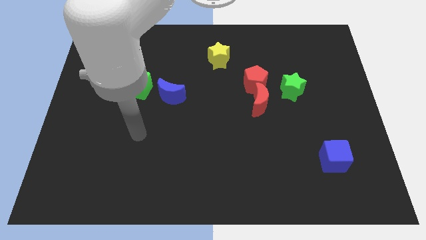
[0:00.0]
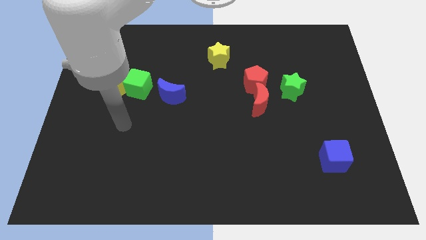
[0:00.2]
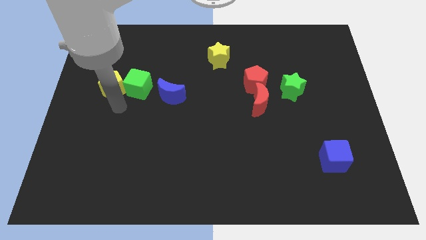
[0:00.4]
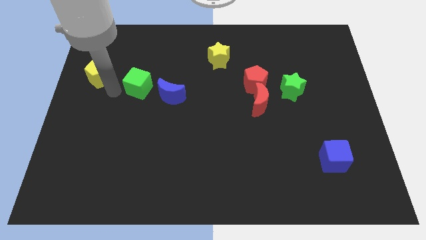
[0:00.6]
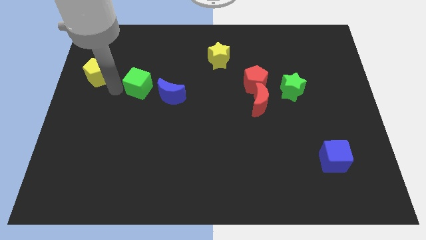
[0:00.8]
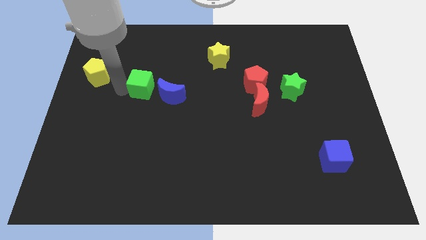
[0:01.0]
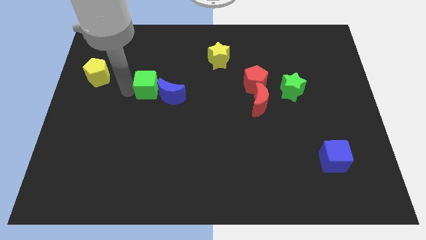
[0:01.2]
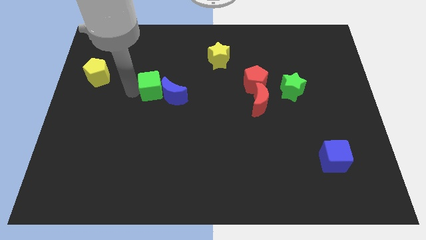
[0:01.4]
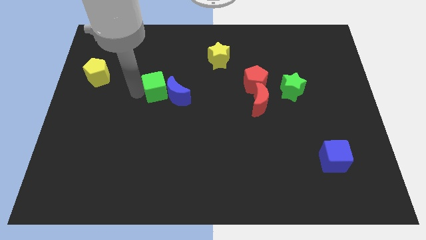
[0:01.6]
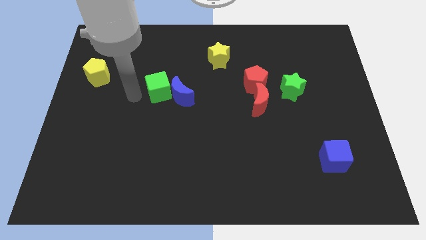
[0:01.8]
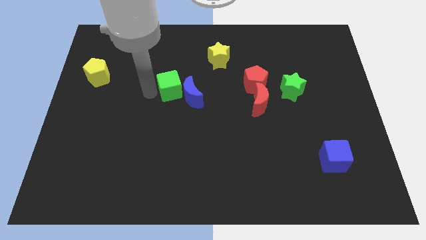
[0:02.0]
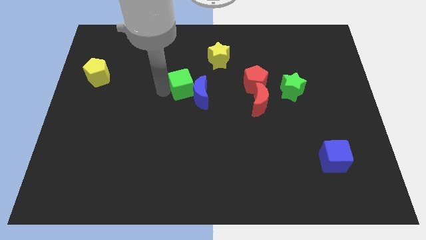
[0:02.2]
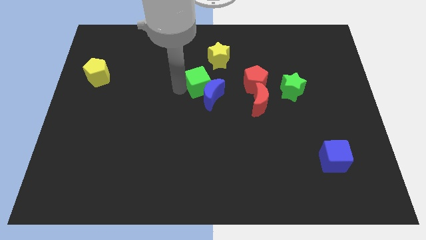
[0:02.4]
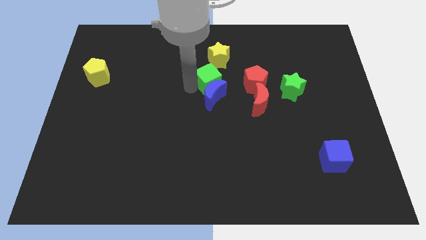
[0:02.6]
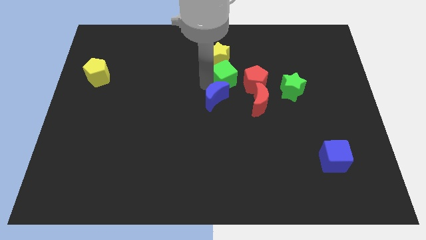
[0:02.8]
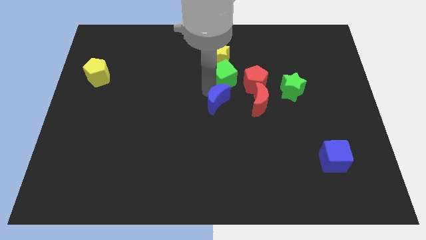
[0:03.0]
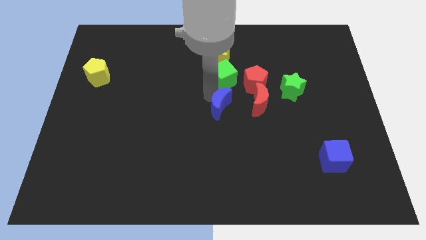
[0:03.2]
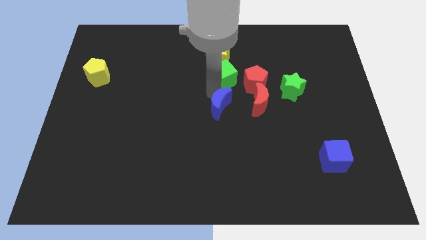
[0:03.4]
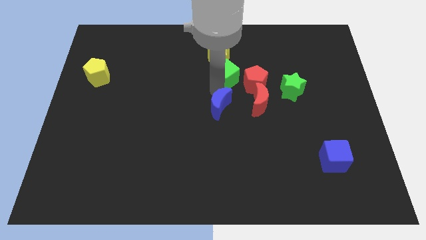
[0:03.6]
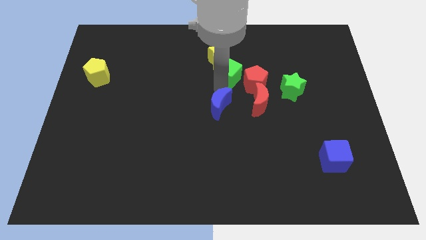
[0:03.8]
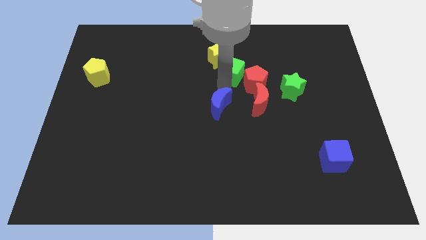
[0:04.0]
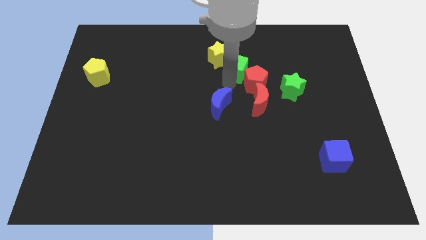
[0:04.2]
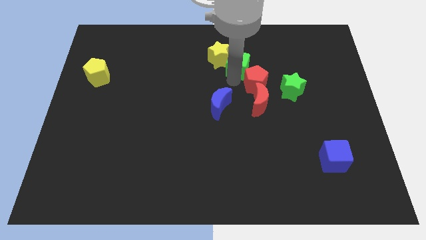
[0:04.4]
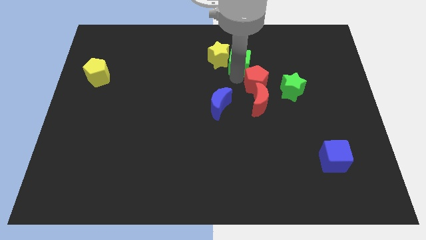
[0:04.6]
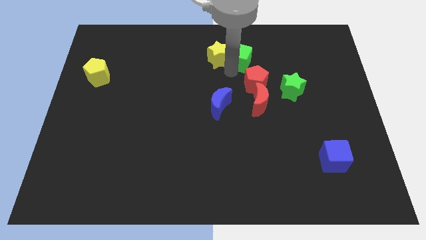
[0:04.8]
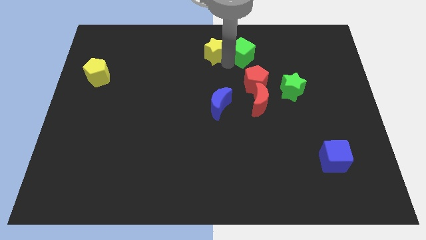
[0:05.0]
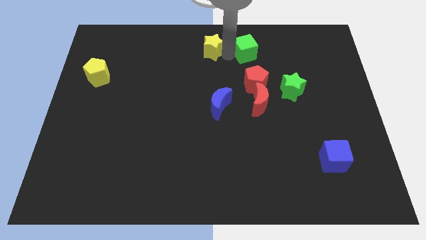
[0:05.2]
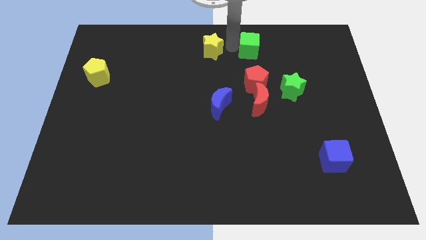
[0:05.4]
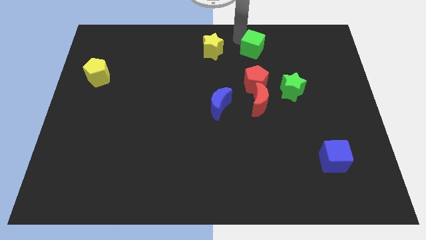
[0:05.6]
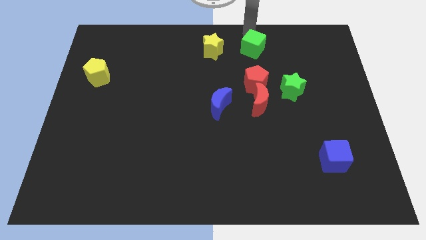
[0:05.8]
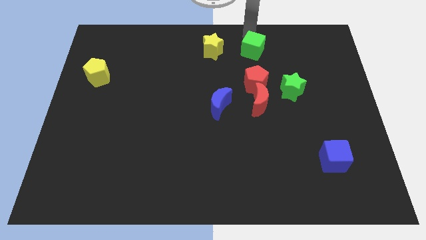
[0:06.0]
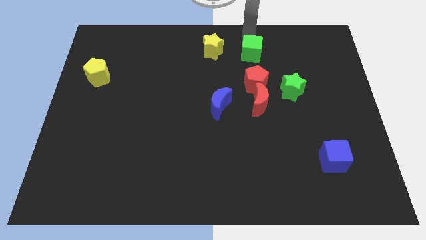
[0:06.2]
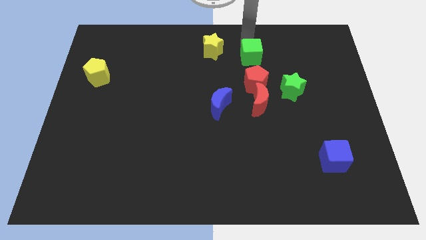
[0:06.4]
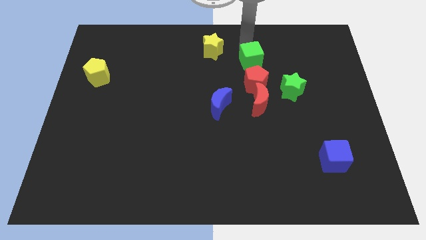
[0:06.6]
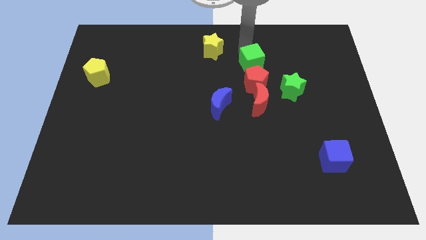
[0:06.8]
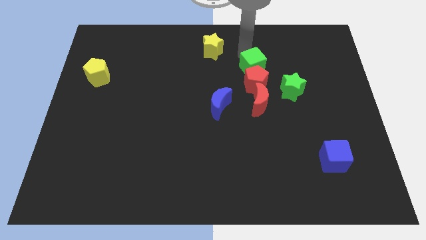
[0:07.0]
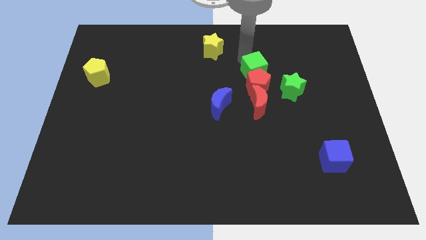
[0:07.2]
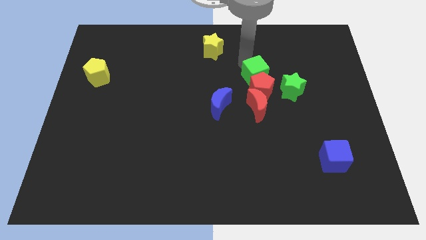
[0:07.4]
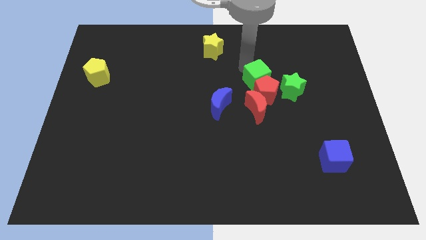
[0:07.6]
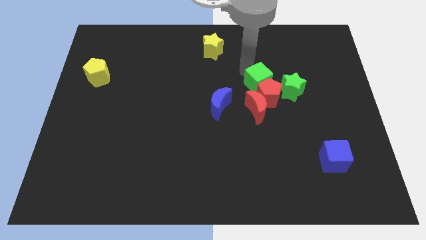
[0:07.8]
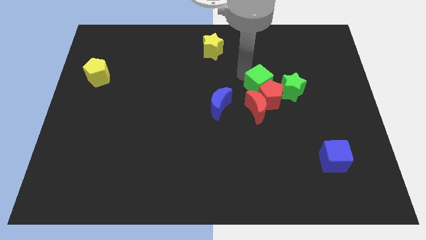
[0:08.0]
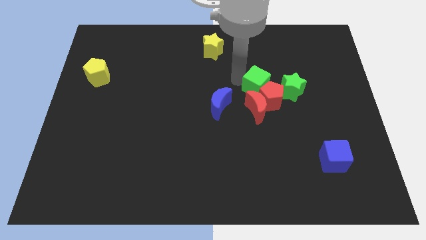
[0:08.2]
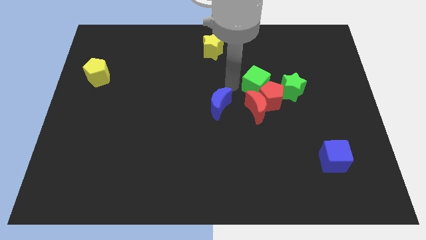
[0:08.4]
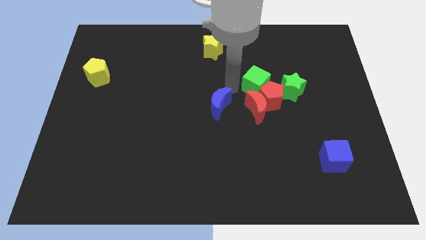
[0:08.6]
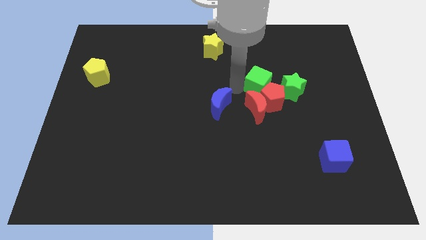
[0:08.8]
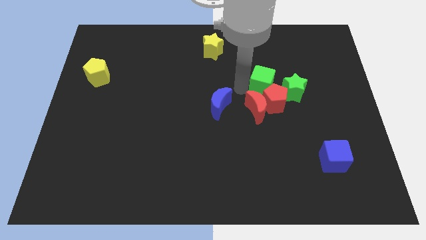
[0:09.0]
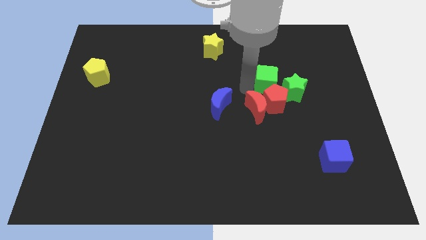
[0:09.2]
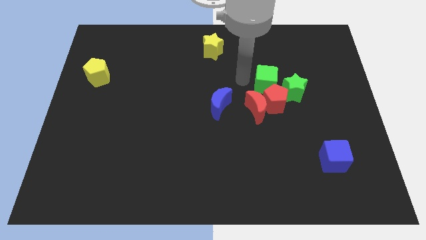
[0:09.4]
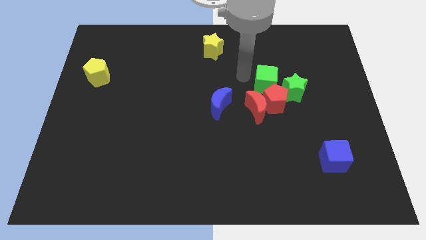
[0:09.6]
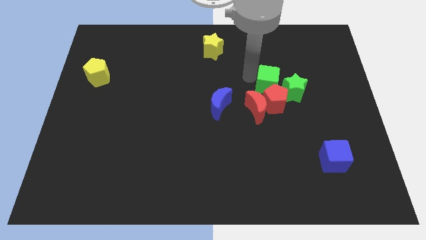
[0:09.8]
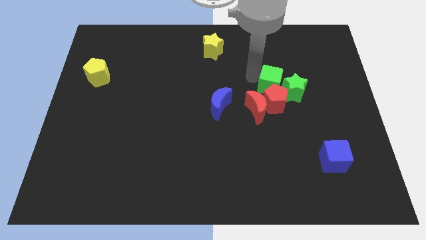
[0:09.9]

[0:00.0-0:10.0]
move the green cube to the green star
